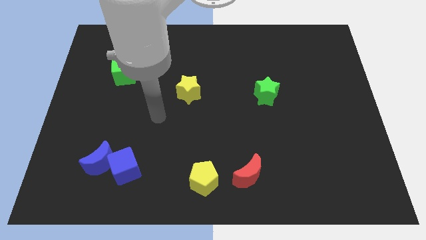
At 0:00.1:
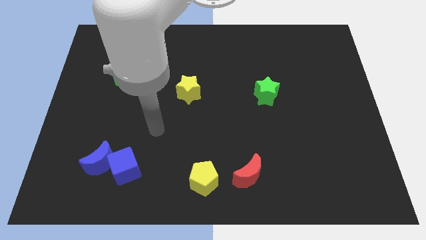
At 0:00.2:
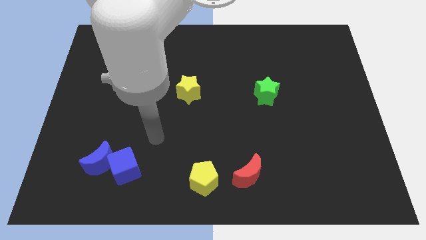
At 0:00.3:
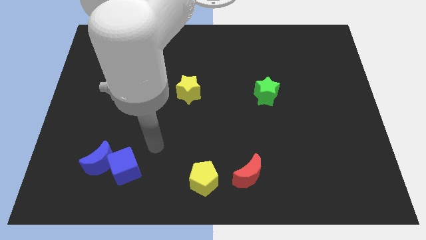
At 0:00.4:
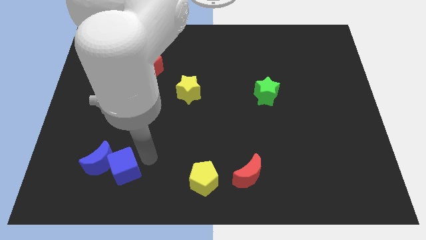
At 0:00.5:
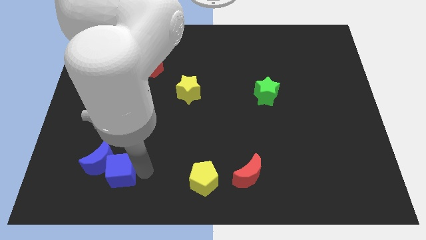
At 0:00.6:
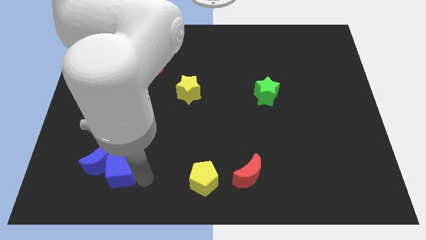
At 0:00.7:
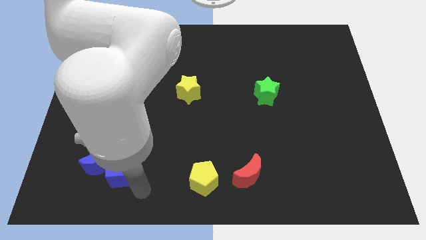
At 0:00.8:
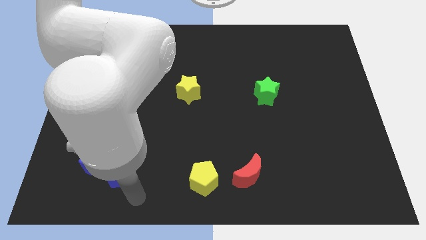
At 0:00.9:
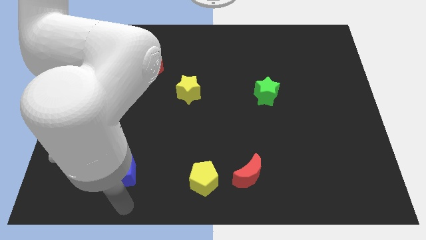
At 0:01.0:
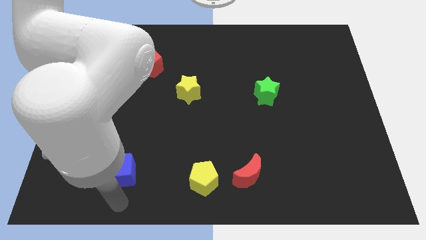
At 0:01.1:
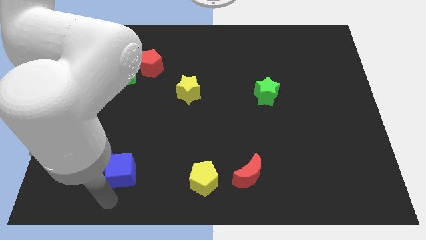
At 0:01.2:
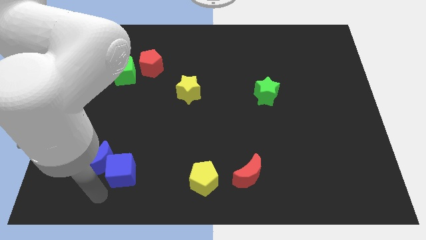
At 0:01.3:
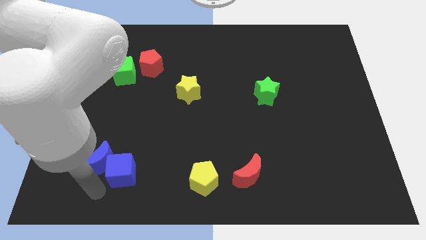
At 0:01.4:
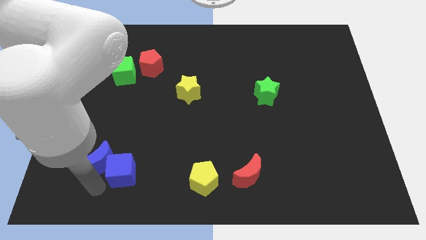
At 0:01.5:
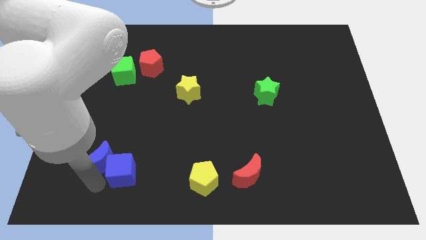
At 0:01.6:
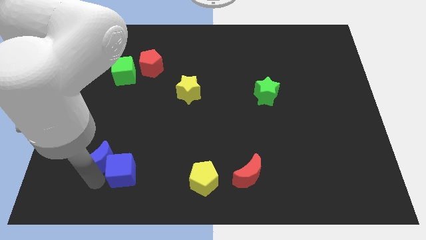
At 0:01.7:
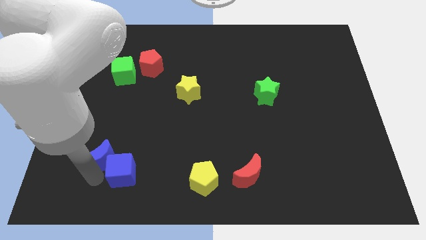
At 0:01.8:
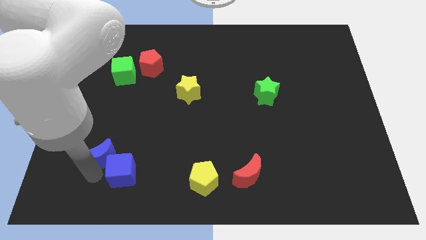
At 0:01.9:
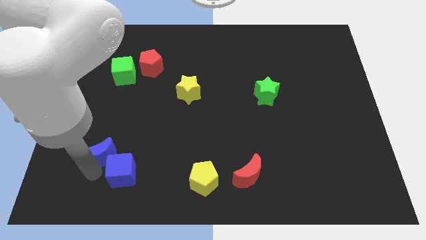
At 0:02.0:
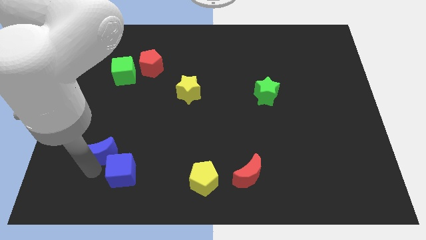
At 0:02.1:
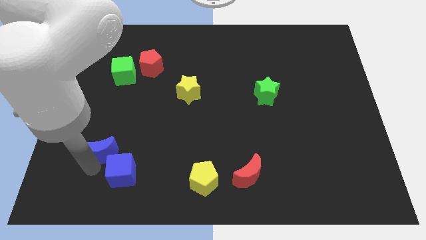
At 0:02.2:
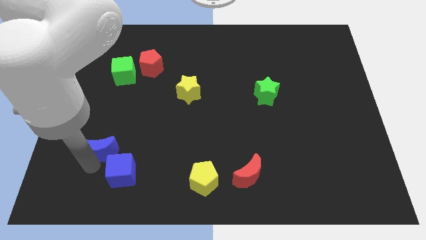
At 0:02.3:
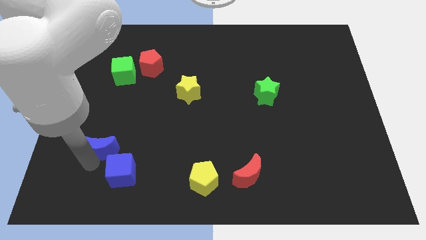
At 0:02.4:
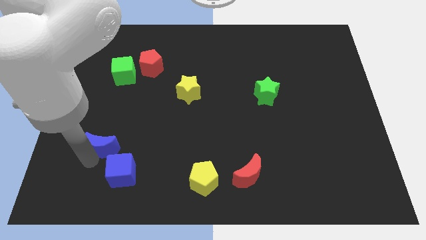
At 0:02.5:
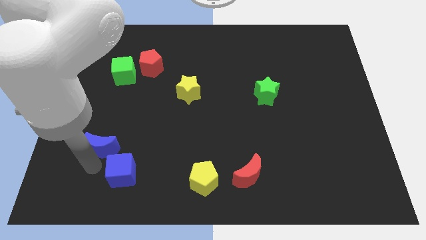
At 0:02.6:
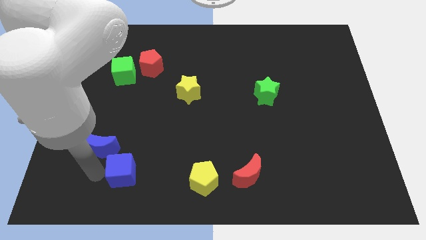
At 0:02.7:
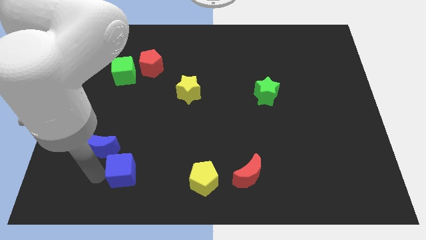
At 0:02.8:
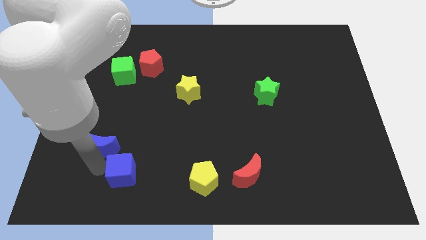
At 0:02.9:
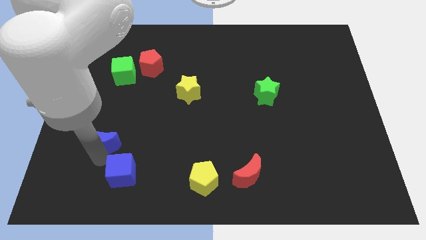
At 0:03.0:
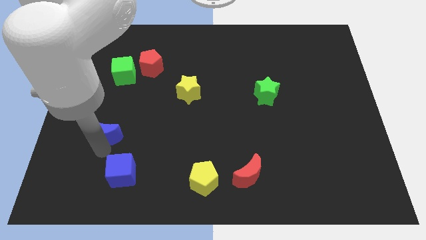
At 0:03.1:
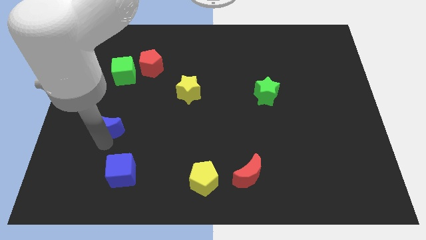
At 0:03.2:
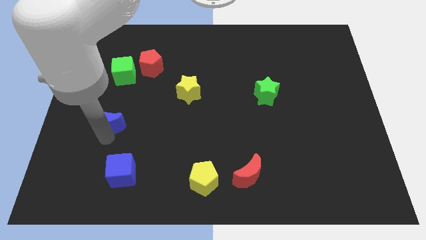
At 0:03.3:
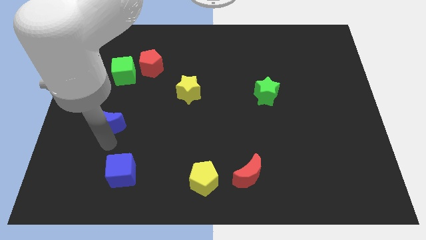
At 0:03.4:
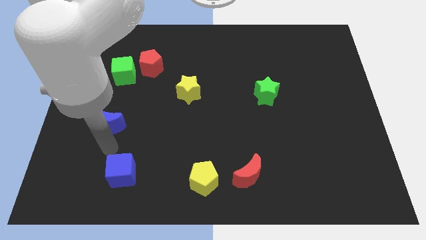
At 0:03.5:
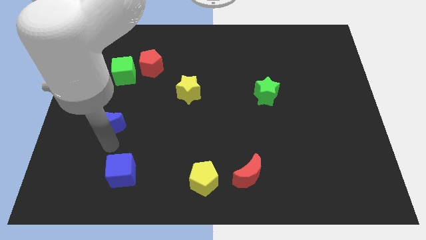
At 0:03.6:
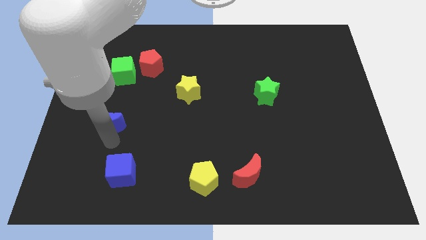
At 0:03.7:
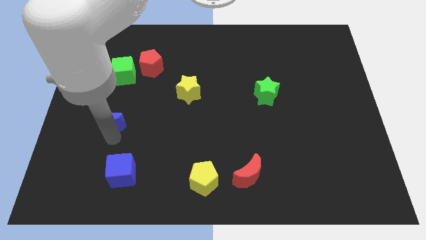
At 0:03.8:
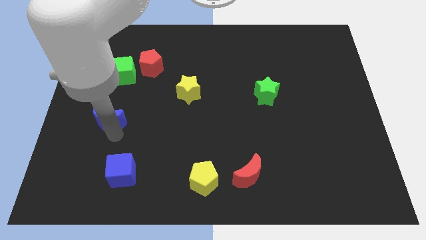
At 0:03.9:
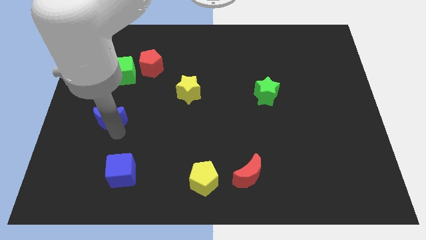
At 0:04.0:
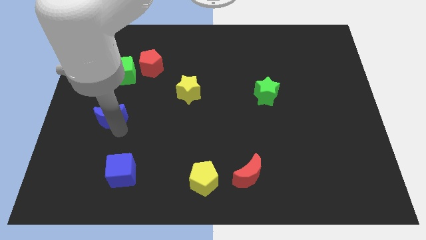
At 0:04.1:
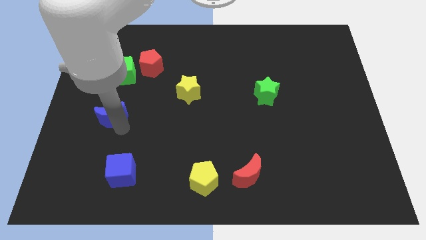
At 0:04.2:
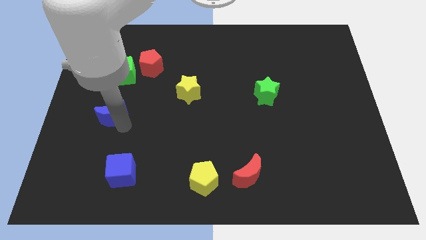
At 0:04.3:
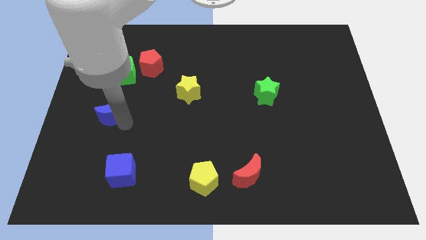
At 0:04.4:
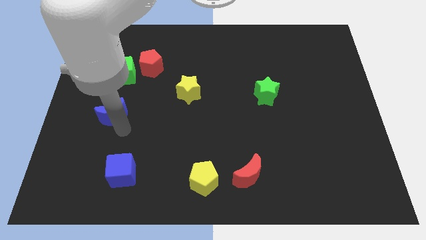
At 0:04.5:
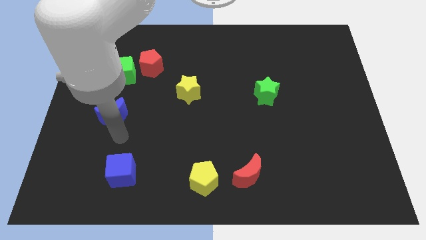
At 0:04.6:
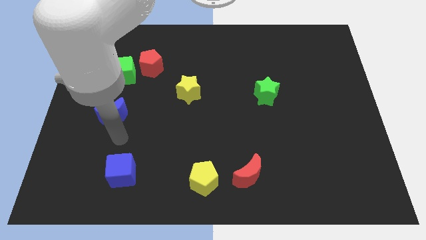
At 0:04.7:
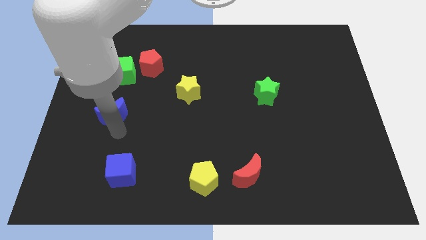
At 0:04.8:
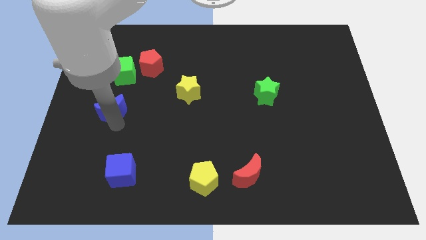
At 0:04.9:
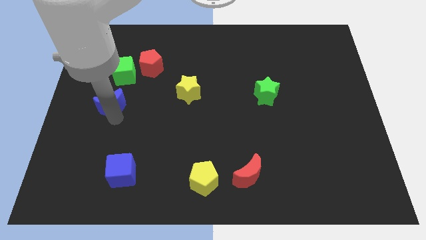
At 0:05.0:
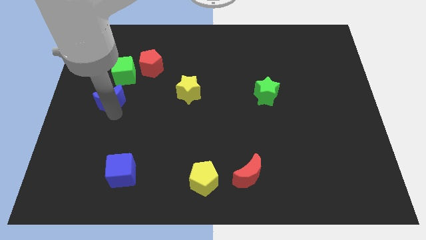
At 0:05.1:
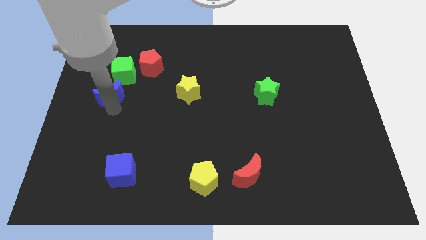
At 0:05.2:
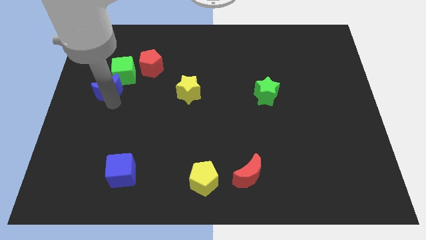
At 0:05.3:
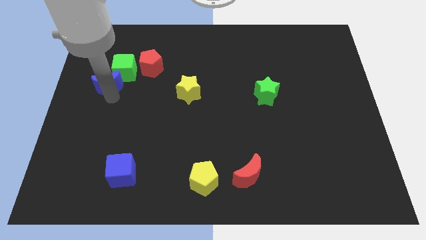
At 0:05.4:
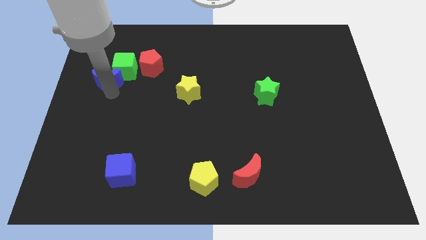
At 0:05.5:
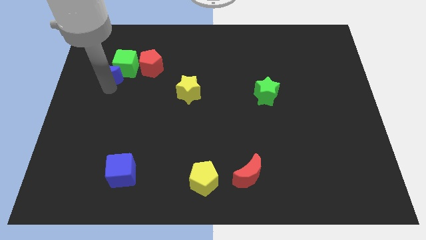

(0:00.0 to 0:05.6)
slide the blue moon to the left of the red pentagon

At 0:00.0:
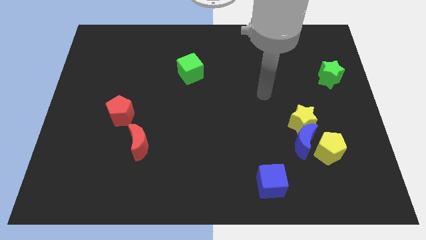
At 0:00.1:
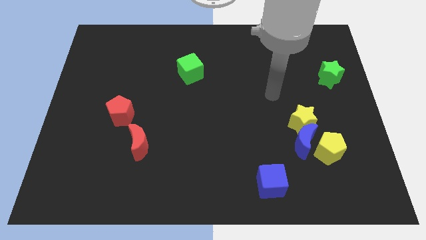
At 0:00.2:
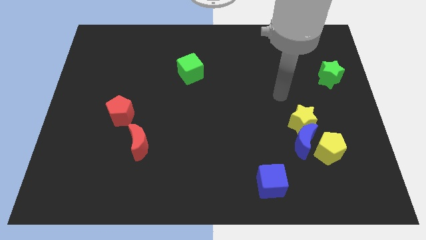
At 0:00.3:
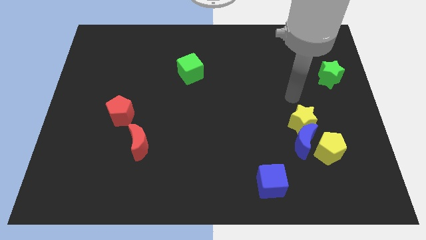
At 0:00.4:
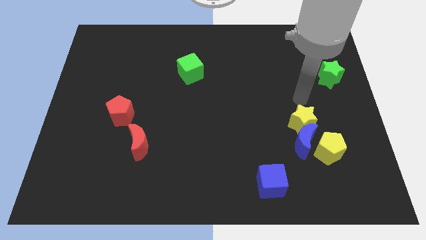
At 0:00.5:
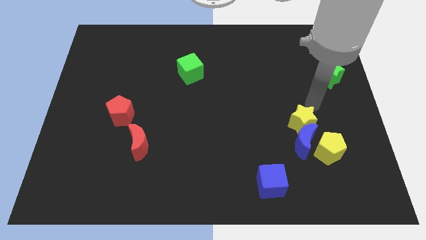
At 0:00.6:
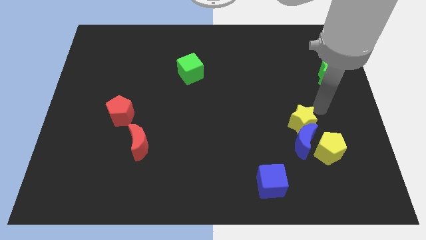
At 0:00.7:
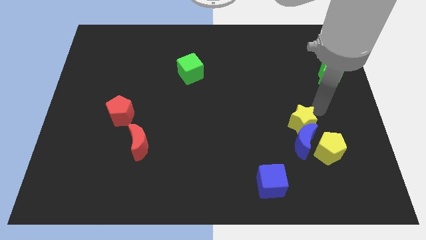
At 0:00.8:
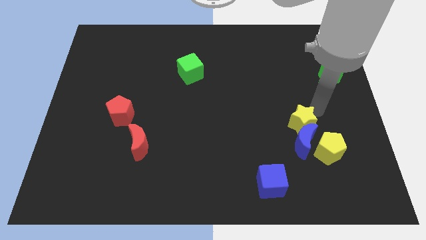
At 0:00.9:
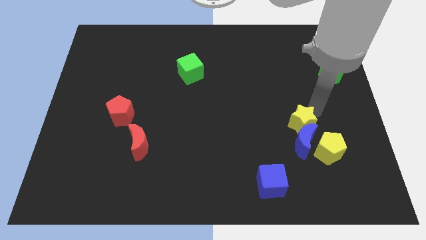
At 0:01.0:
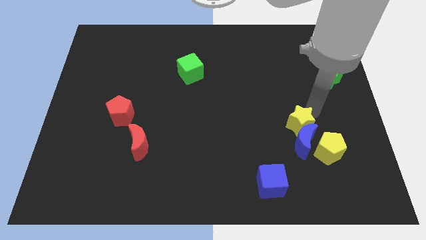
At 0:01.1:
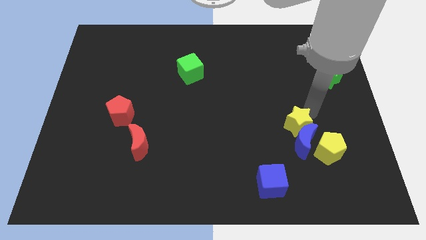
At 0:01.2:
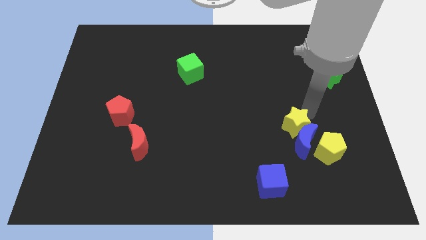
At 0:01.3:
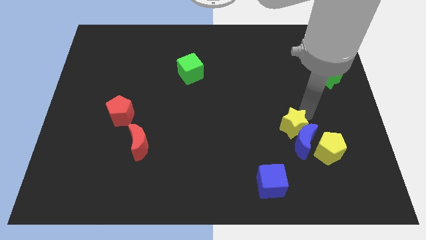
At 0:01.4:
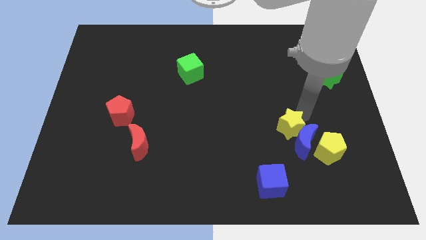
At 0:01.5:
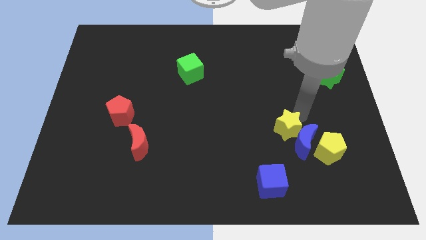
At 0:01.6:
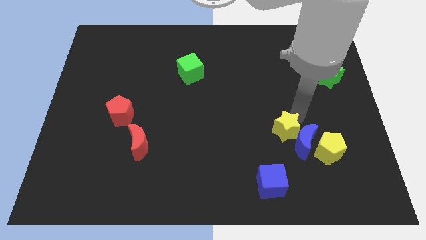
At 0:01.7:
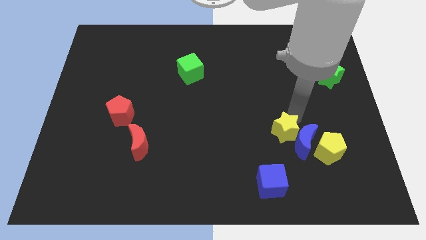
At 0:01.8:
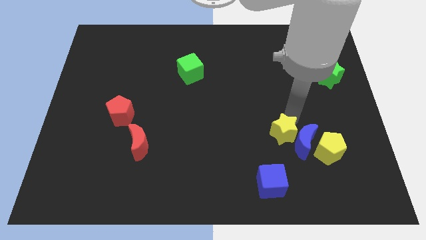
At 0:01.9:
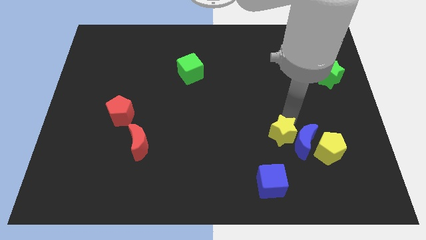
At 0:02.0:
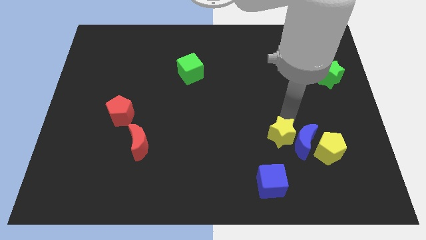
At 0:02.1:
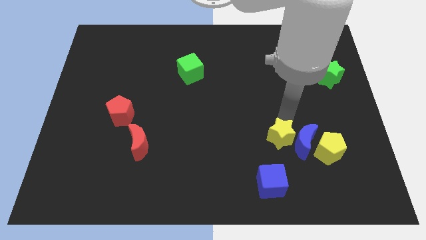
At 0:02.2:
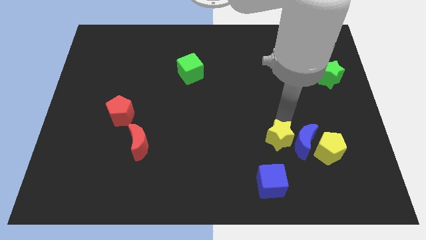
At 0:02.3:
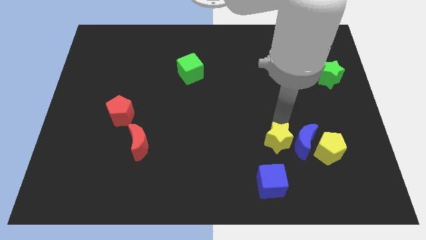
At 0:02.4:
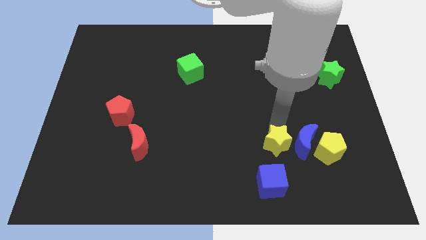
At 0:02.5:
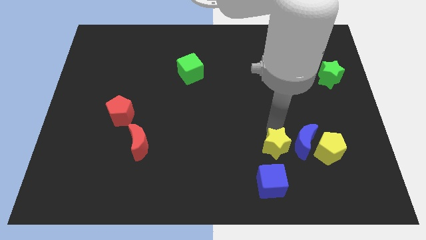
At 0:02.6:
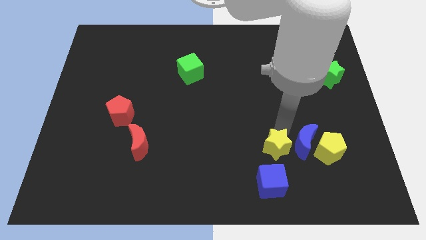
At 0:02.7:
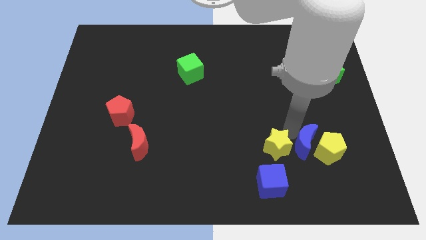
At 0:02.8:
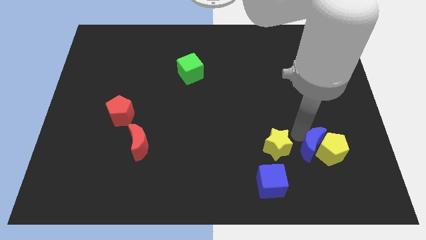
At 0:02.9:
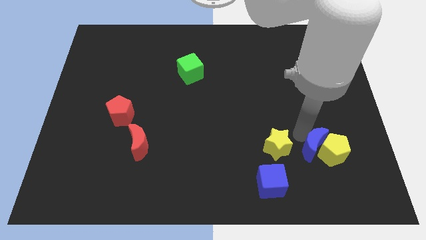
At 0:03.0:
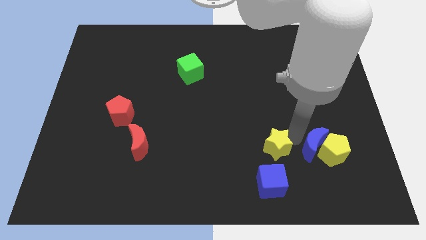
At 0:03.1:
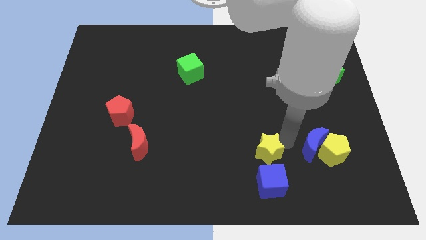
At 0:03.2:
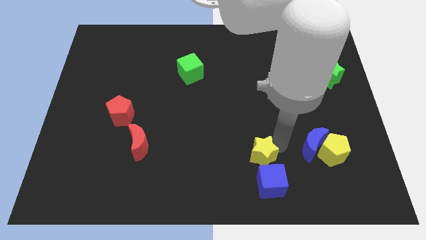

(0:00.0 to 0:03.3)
slide the yellow star to the top left side of the blue cube
